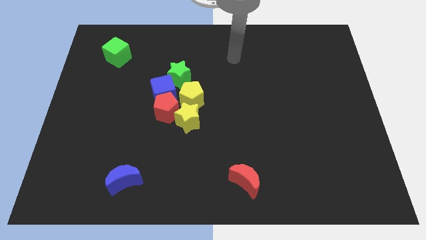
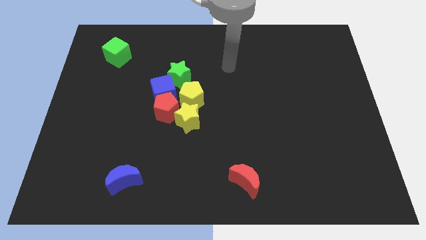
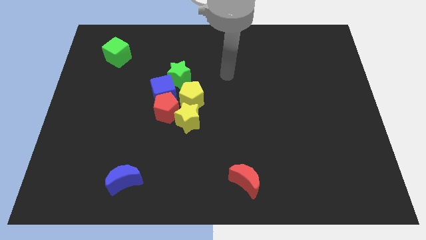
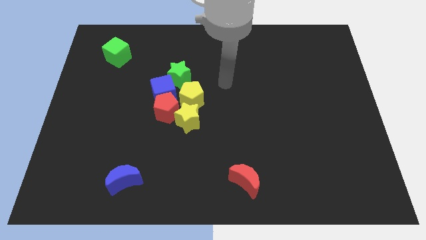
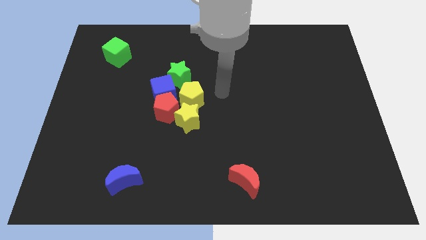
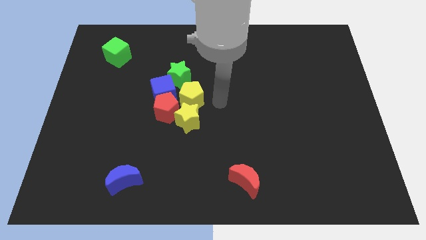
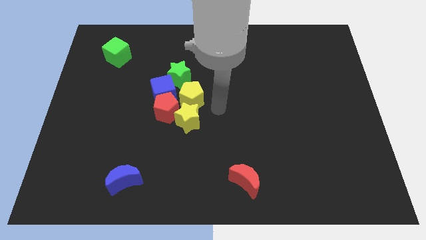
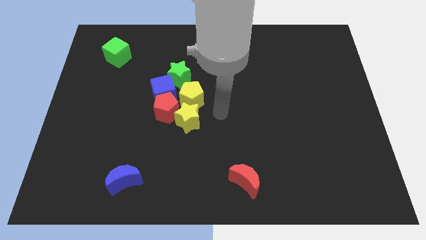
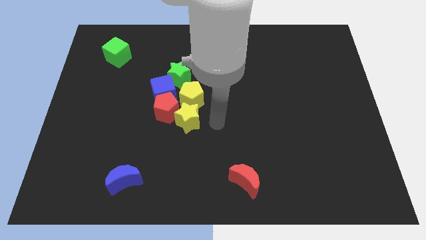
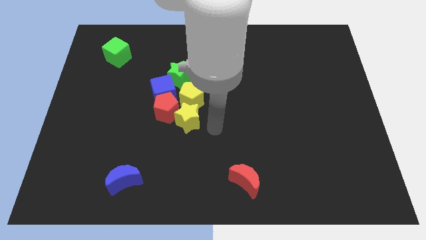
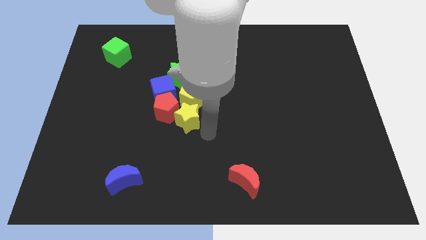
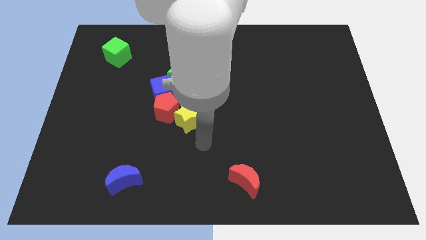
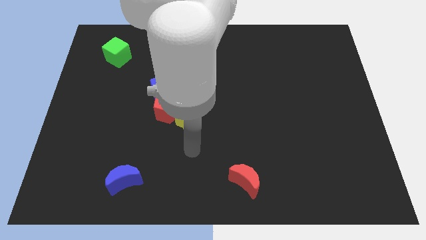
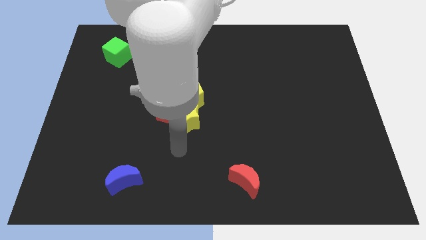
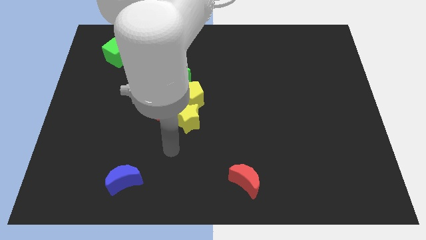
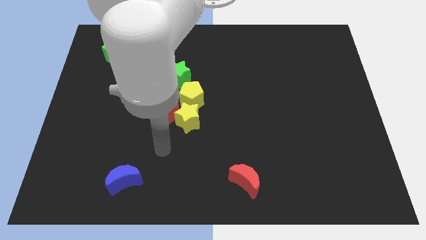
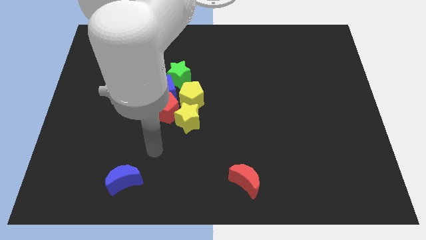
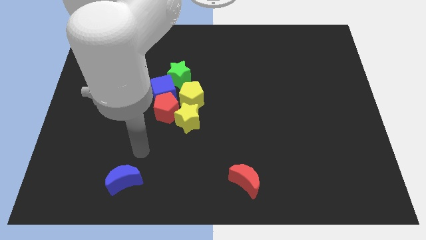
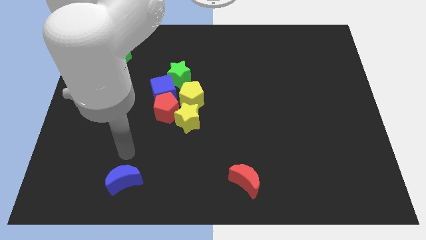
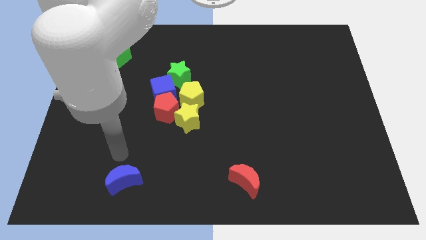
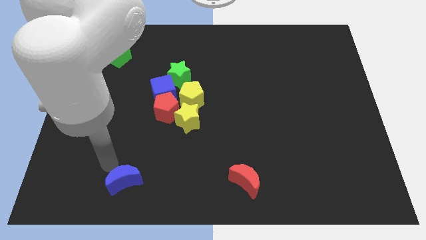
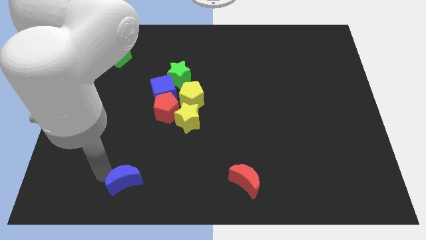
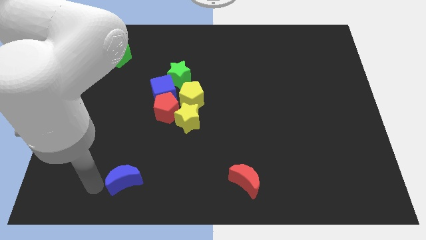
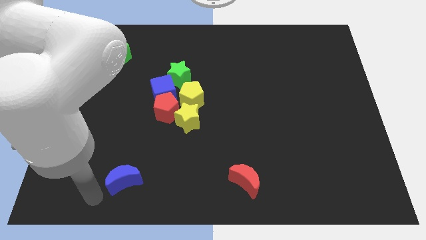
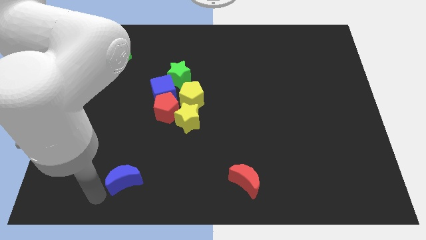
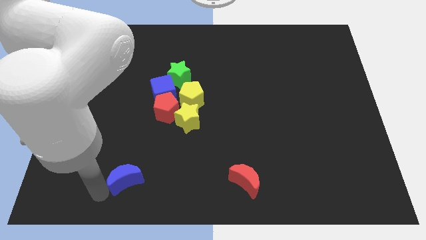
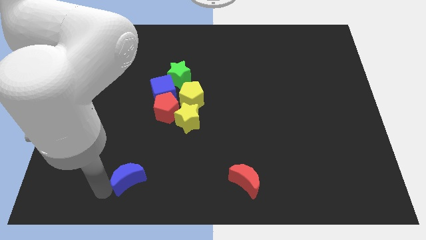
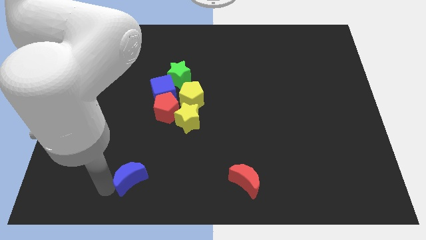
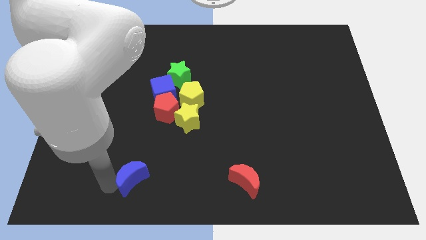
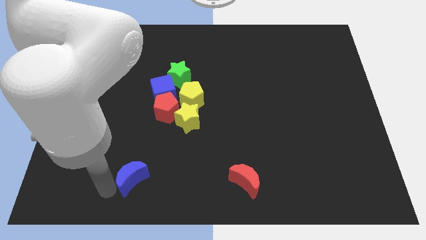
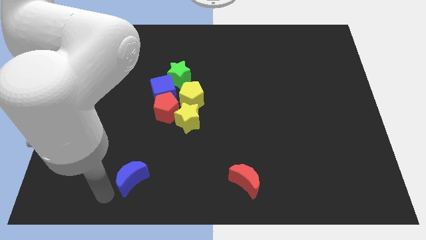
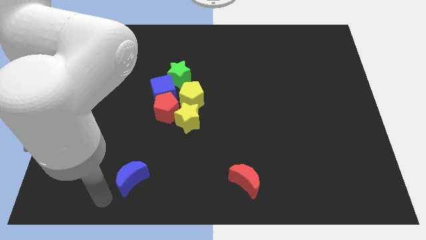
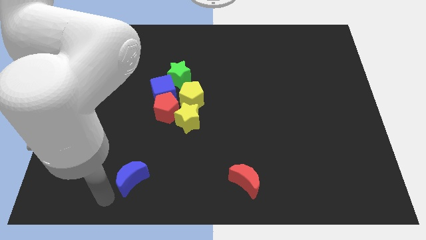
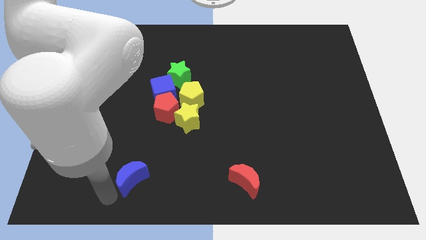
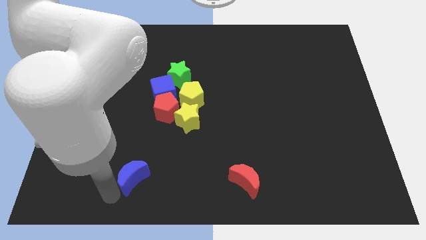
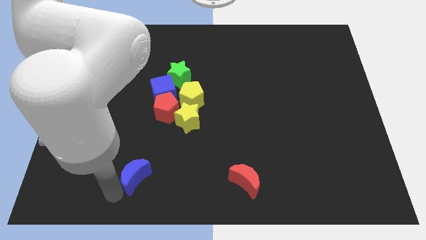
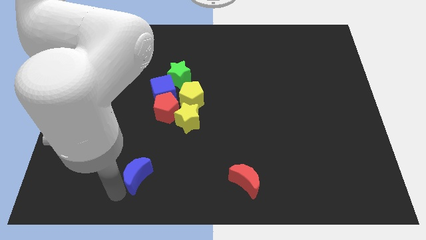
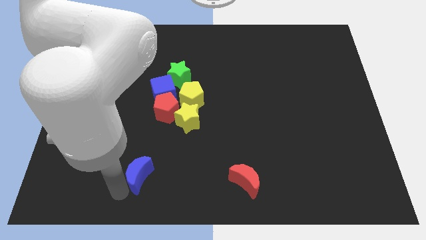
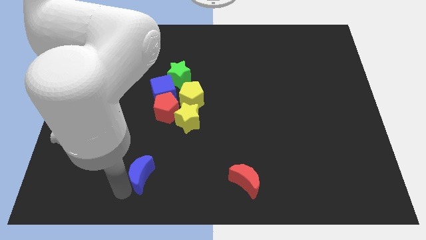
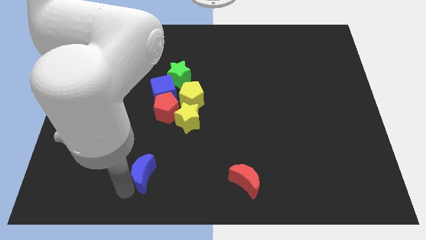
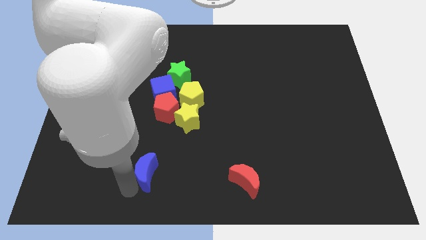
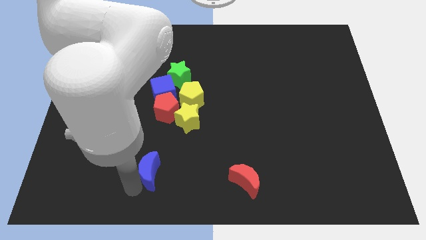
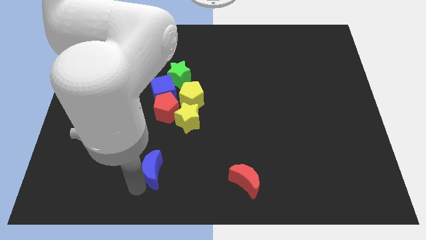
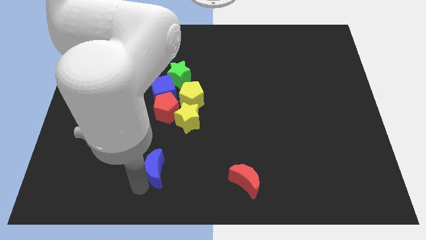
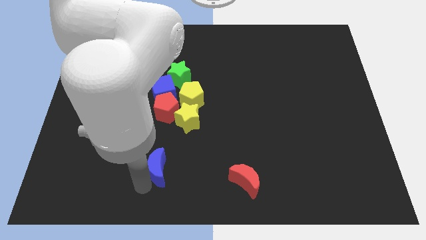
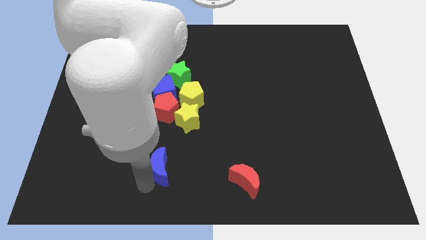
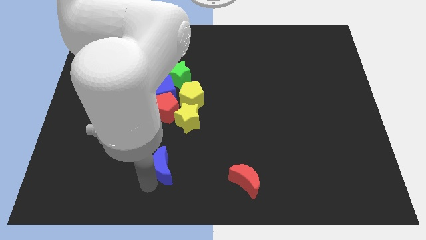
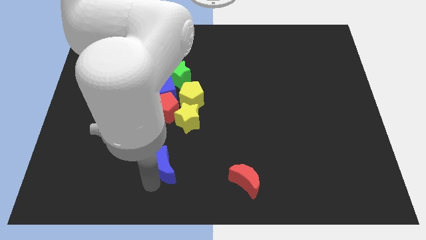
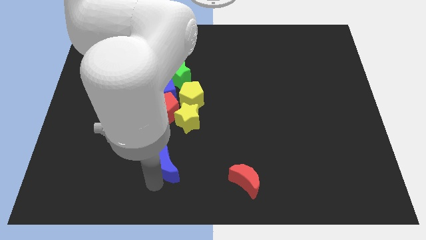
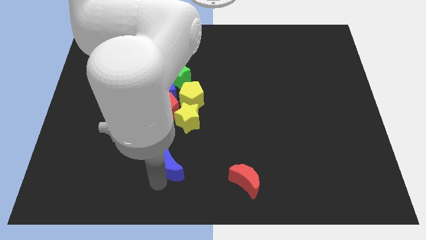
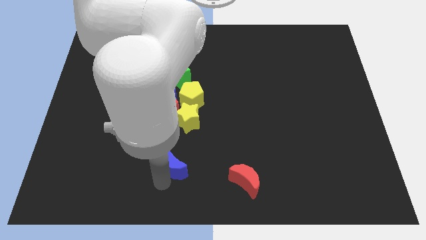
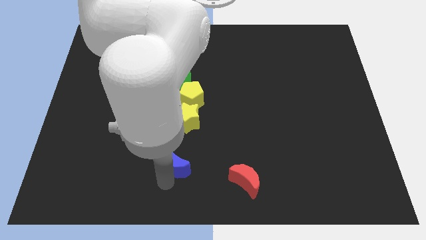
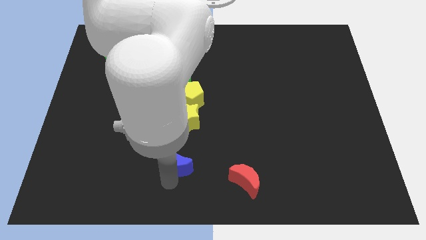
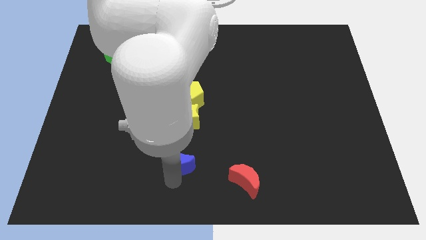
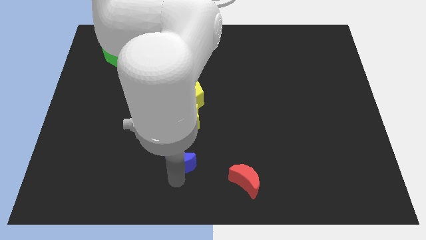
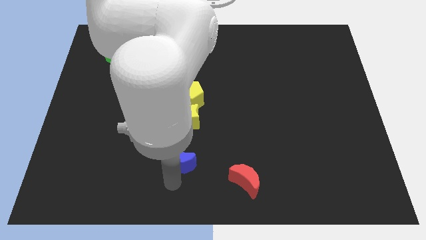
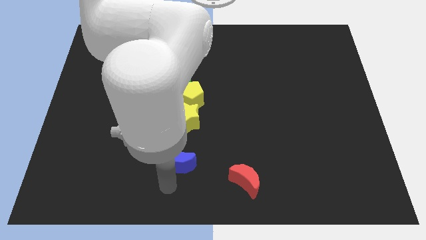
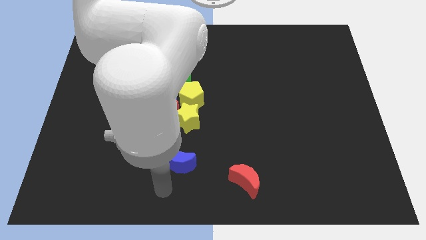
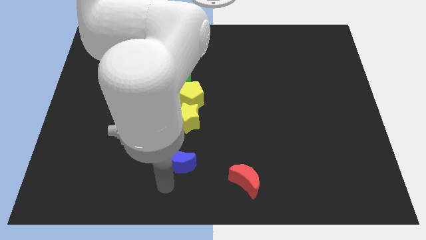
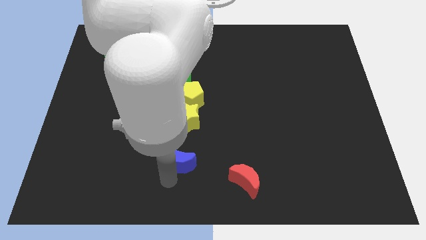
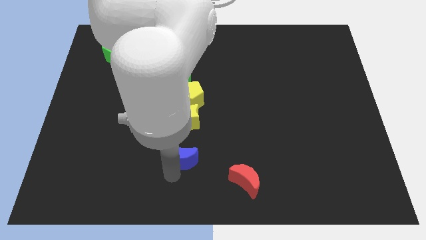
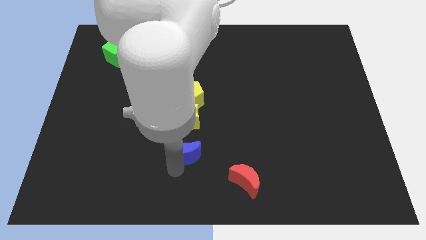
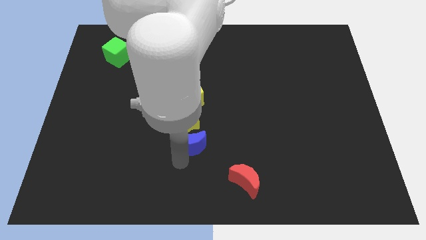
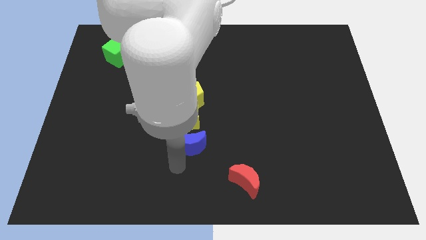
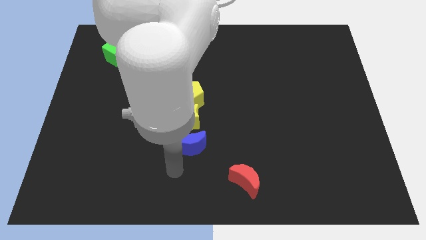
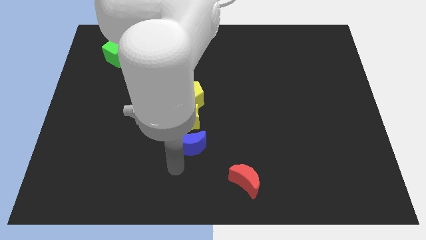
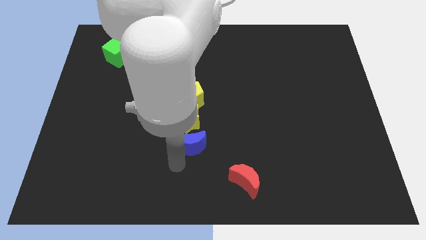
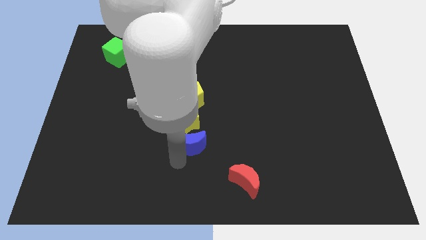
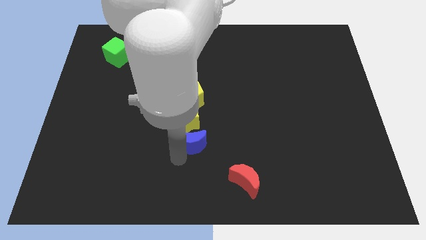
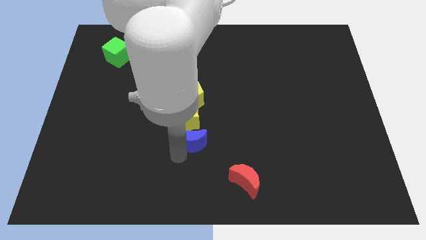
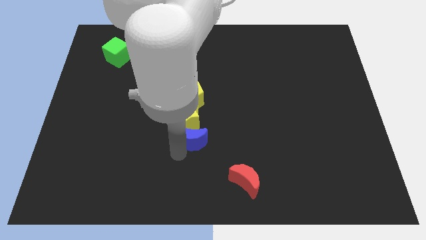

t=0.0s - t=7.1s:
move the blue moon to the middle
